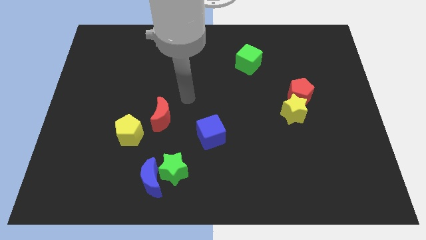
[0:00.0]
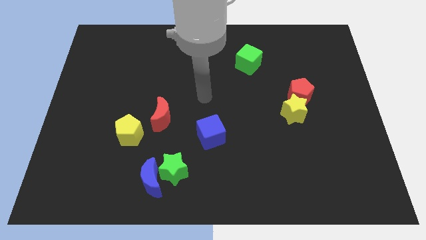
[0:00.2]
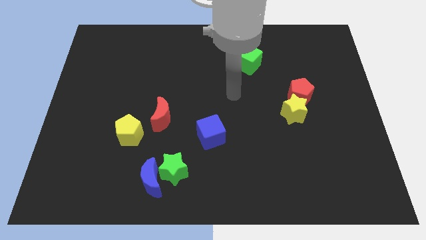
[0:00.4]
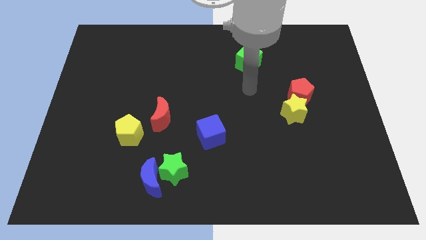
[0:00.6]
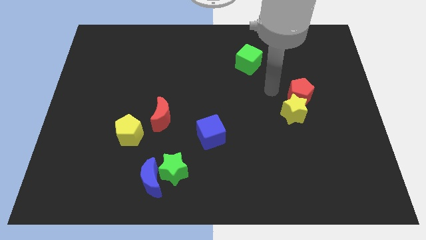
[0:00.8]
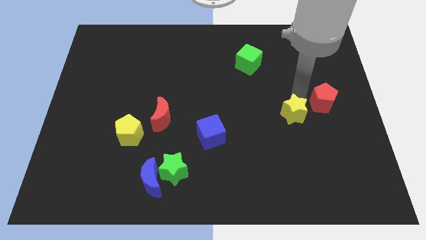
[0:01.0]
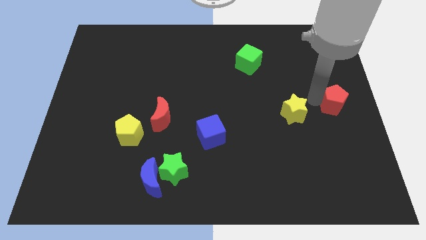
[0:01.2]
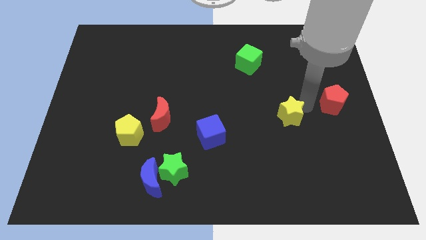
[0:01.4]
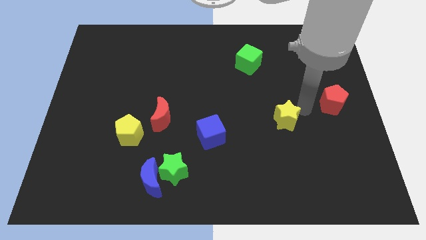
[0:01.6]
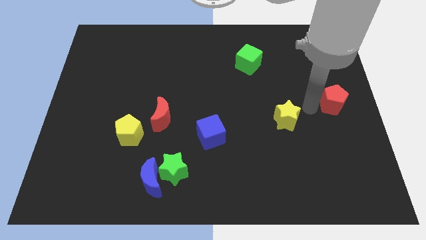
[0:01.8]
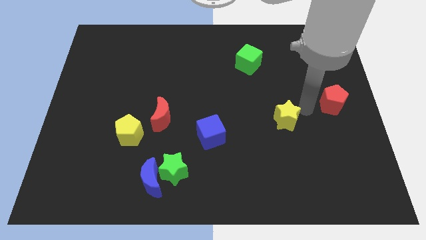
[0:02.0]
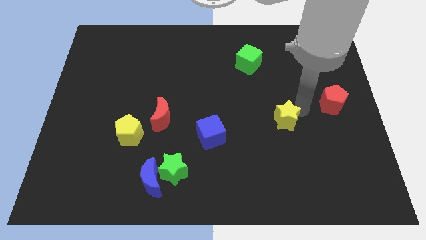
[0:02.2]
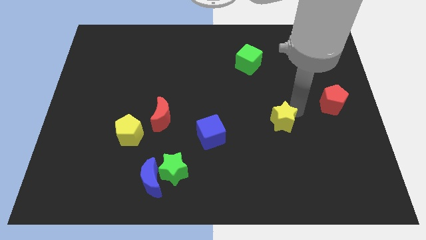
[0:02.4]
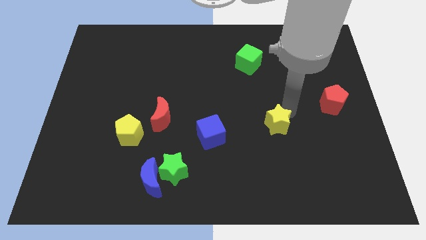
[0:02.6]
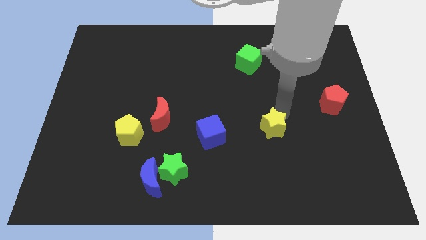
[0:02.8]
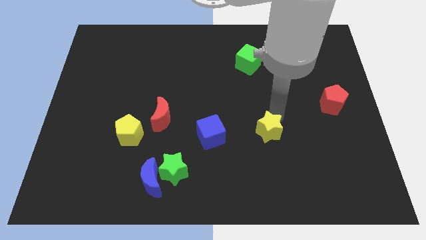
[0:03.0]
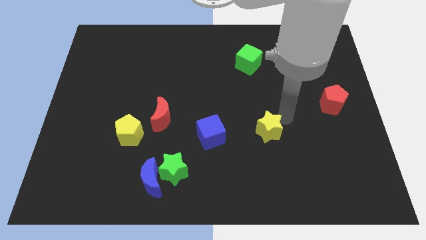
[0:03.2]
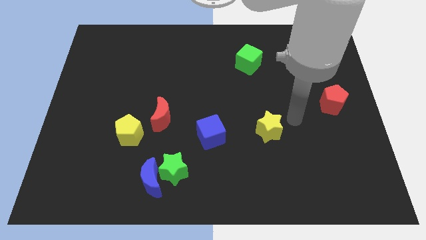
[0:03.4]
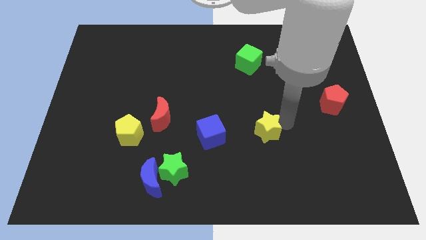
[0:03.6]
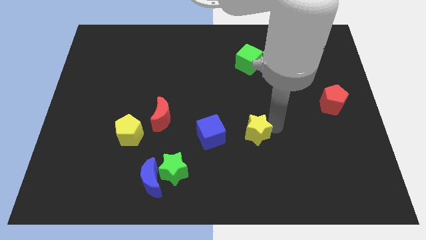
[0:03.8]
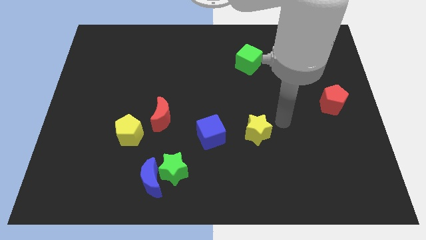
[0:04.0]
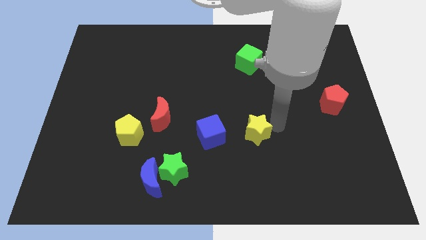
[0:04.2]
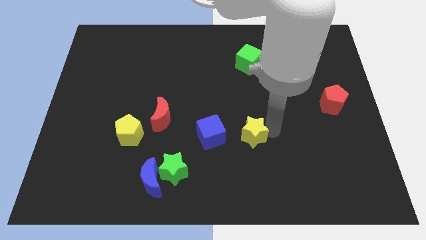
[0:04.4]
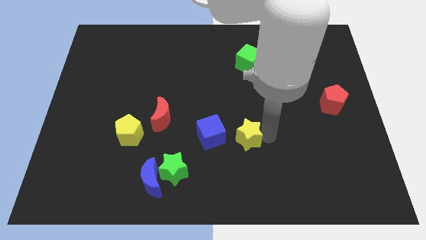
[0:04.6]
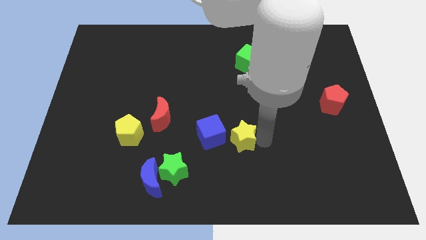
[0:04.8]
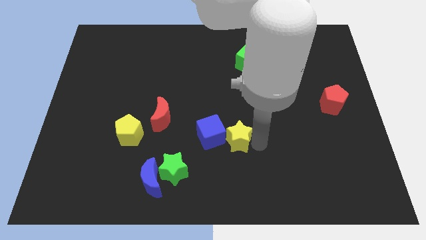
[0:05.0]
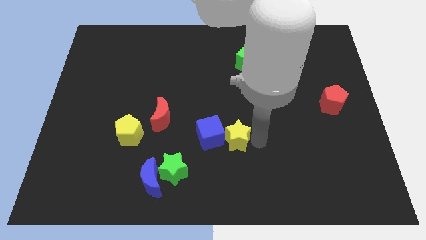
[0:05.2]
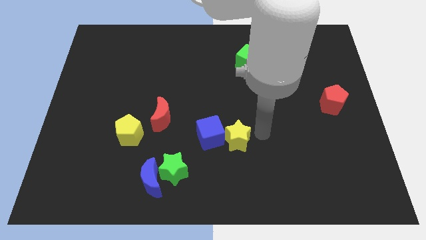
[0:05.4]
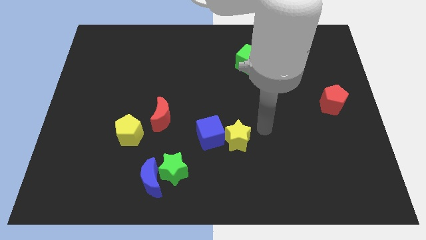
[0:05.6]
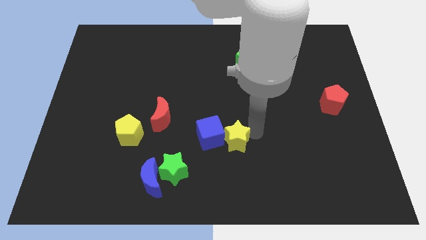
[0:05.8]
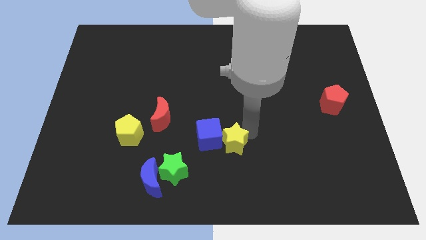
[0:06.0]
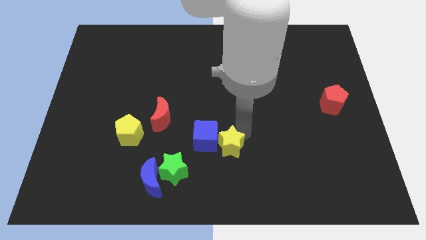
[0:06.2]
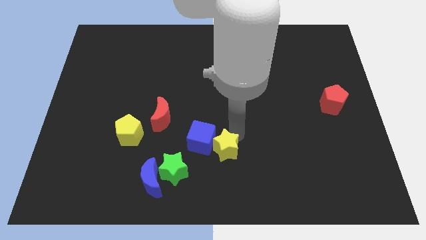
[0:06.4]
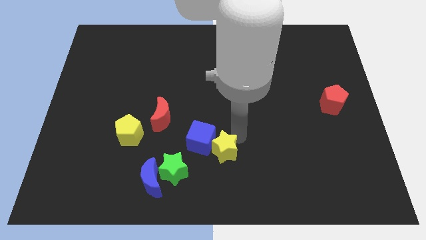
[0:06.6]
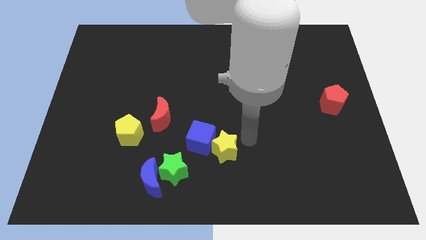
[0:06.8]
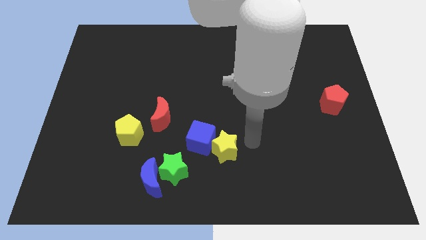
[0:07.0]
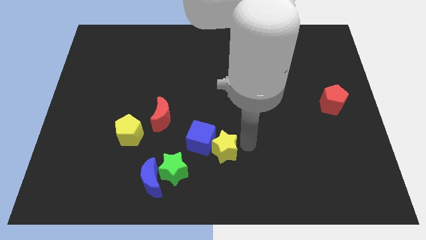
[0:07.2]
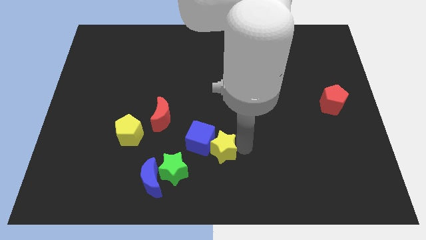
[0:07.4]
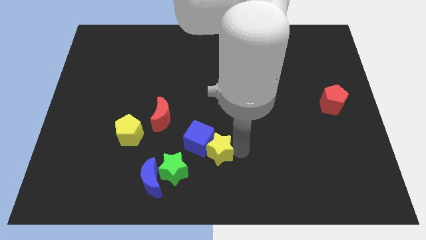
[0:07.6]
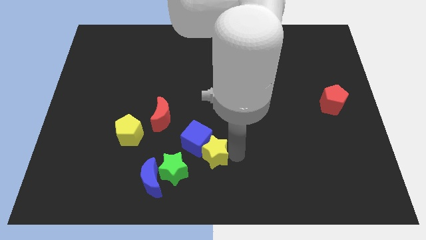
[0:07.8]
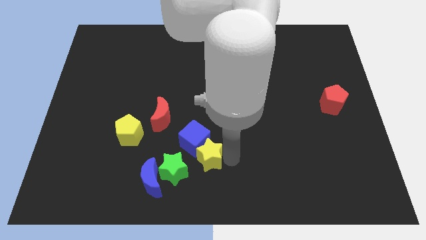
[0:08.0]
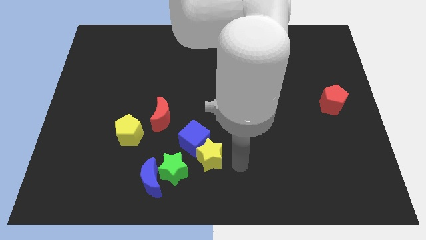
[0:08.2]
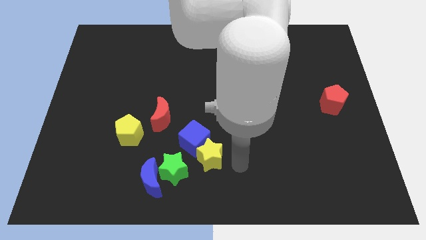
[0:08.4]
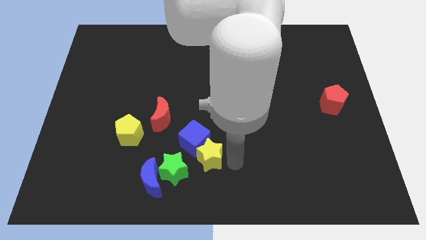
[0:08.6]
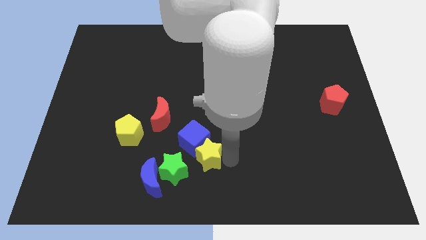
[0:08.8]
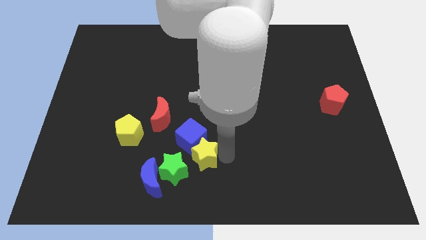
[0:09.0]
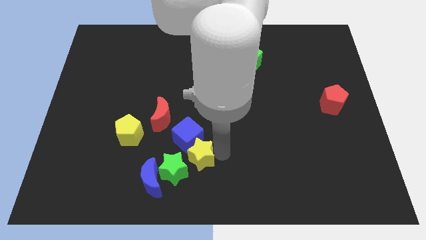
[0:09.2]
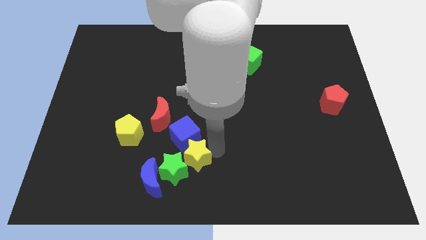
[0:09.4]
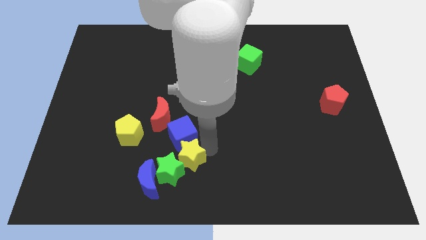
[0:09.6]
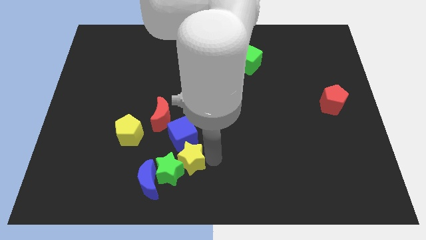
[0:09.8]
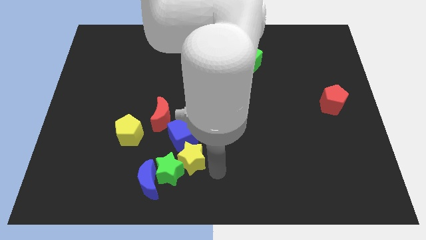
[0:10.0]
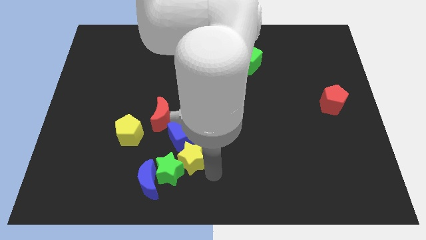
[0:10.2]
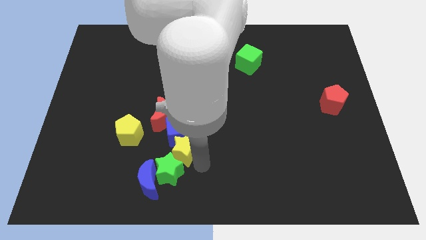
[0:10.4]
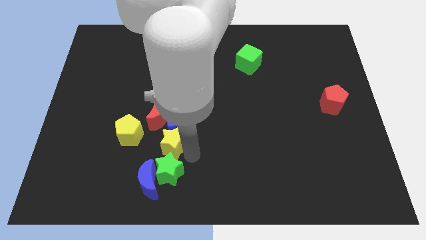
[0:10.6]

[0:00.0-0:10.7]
push the yellow star to the top side of the blue moon

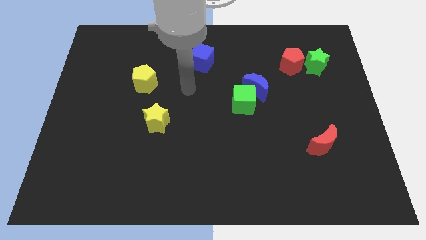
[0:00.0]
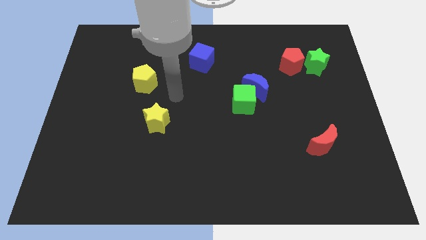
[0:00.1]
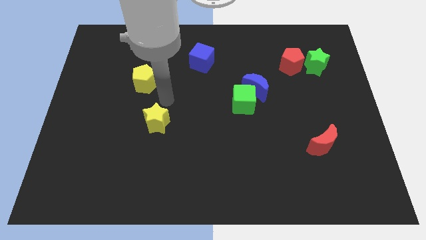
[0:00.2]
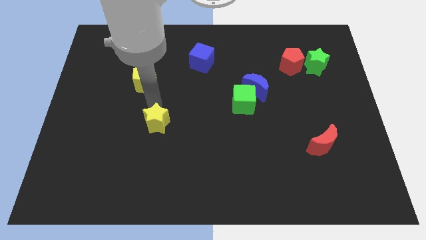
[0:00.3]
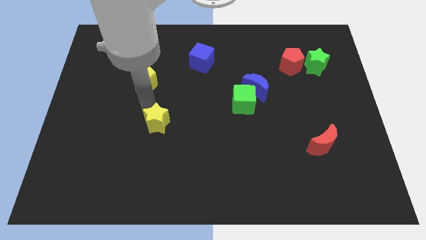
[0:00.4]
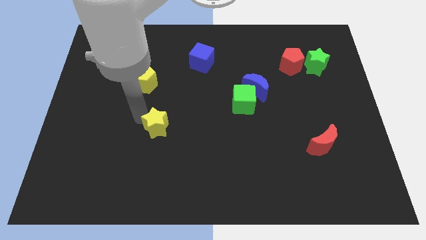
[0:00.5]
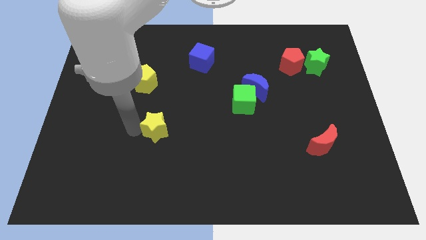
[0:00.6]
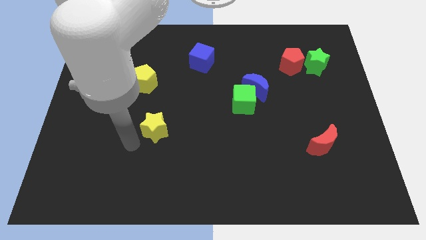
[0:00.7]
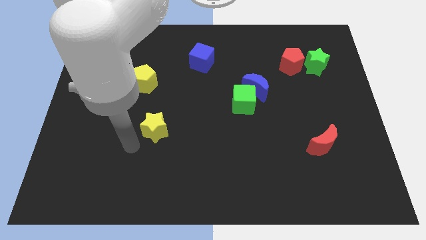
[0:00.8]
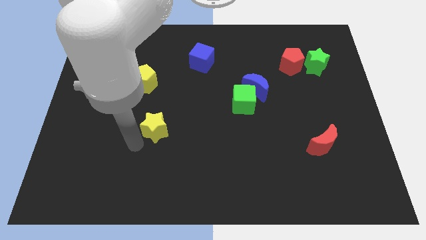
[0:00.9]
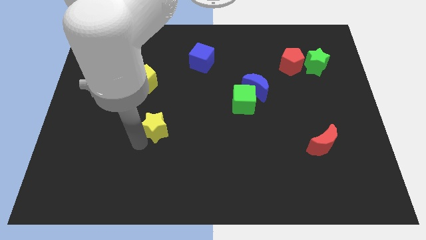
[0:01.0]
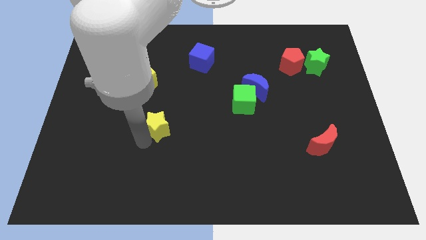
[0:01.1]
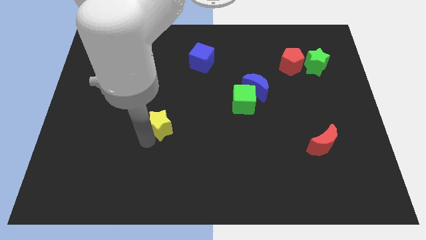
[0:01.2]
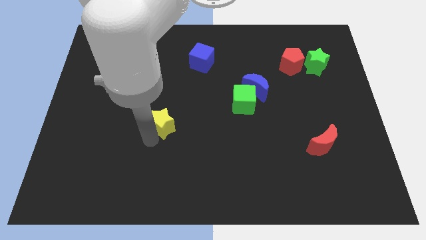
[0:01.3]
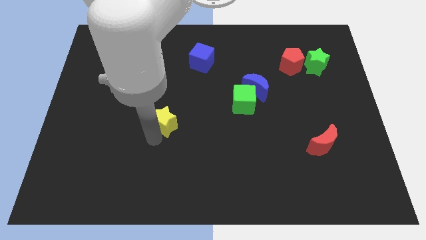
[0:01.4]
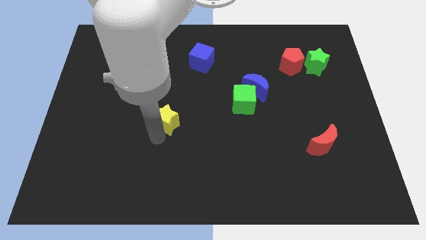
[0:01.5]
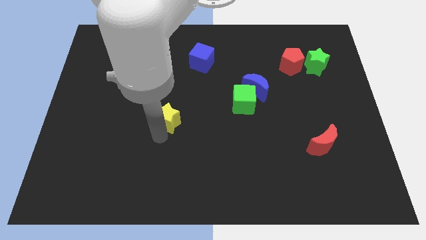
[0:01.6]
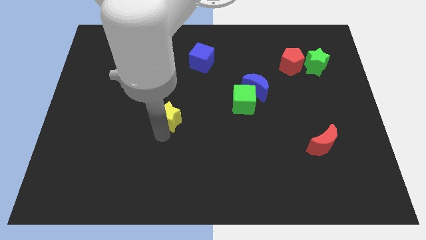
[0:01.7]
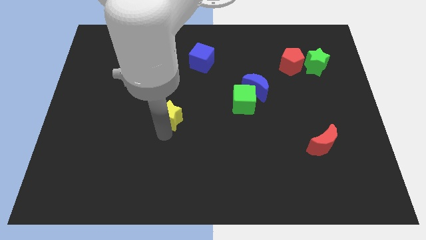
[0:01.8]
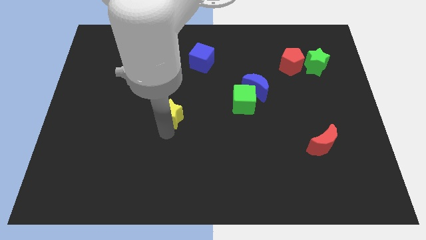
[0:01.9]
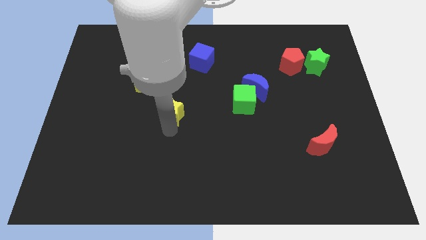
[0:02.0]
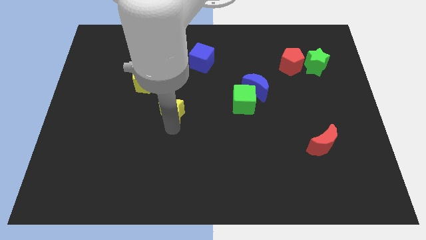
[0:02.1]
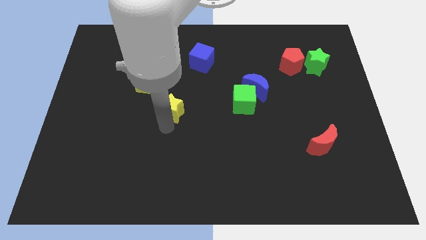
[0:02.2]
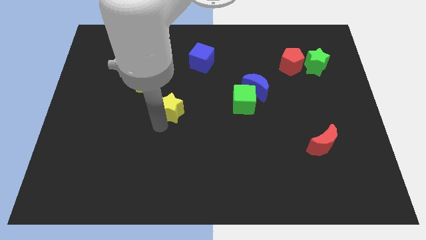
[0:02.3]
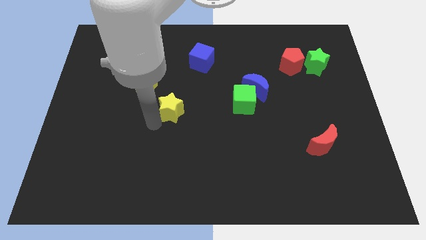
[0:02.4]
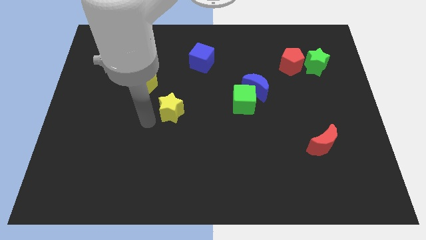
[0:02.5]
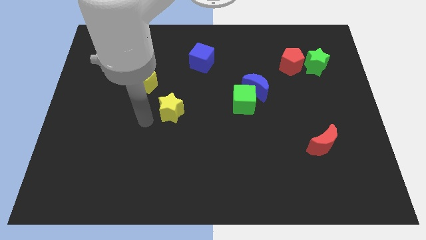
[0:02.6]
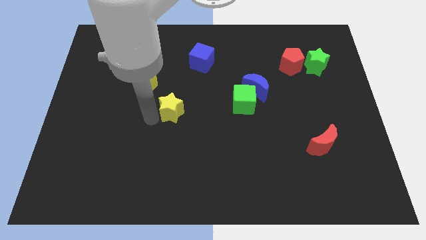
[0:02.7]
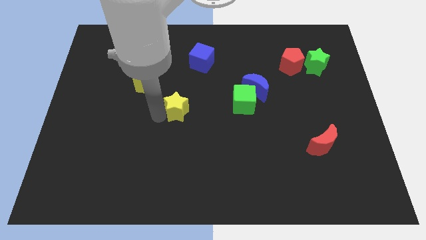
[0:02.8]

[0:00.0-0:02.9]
move the yellow star to the left of the green cube
